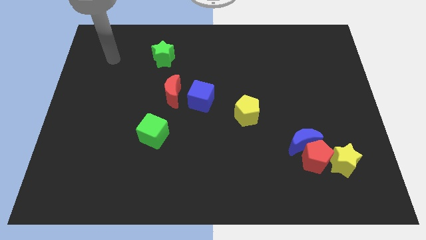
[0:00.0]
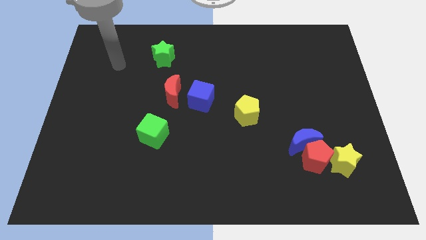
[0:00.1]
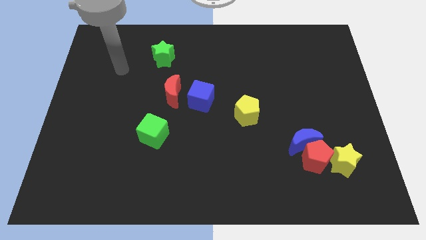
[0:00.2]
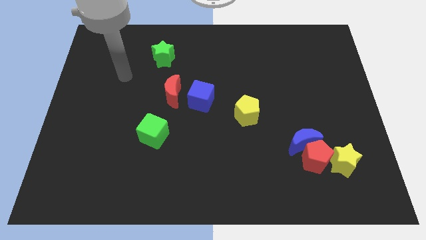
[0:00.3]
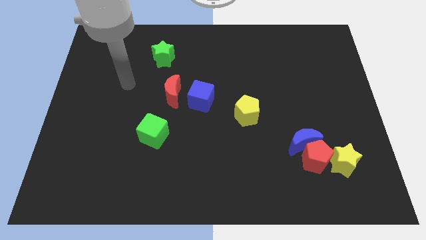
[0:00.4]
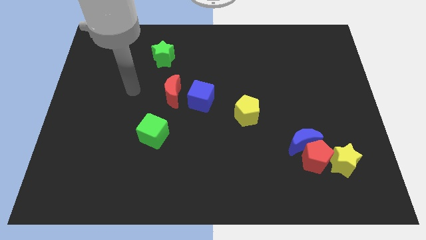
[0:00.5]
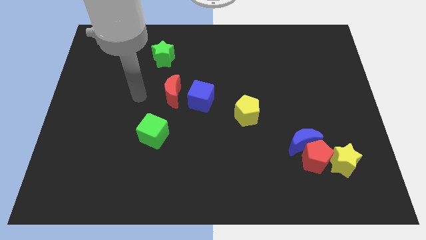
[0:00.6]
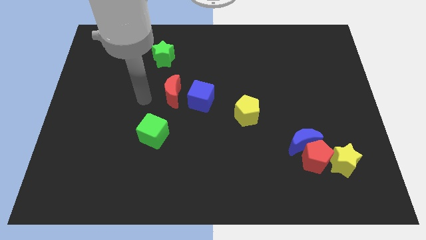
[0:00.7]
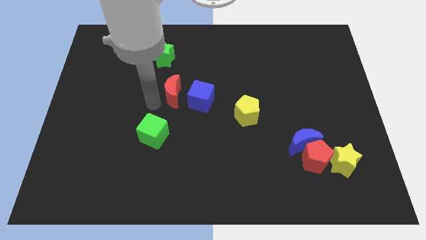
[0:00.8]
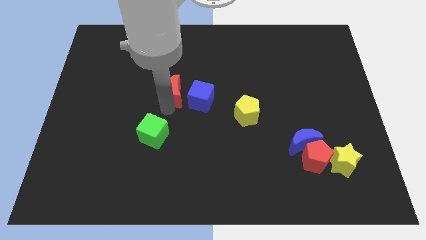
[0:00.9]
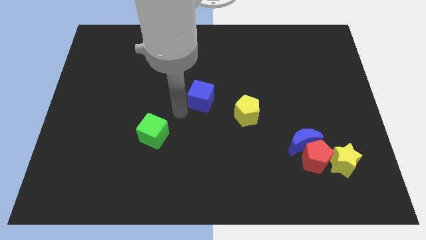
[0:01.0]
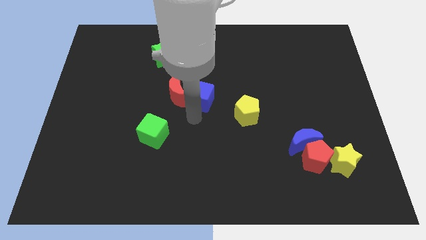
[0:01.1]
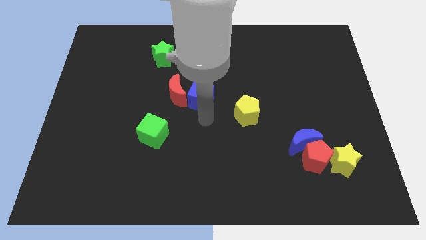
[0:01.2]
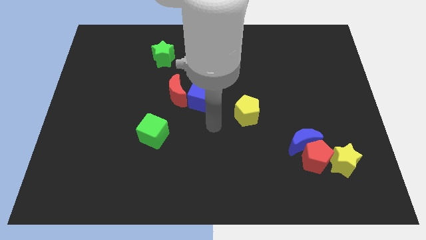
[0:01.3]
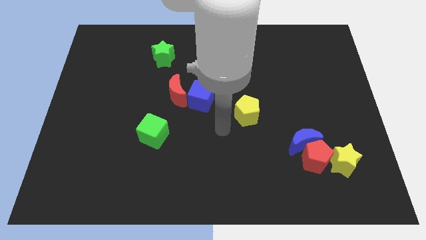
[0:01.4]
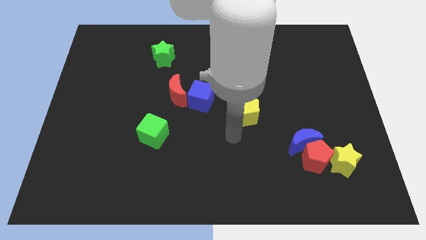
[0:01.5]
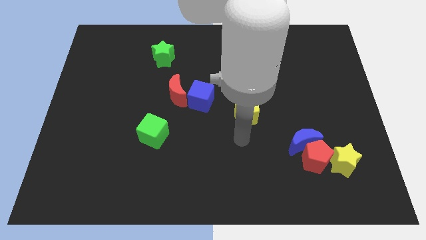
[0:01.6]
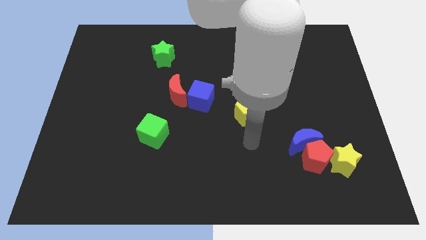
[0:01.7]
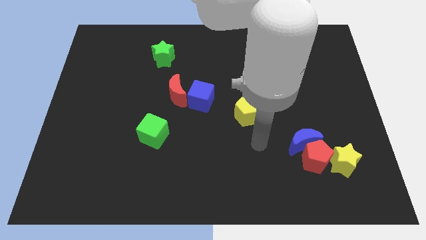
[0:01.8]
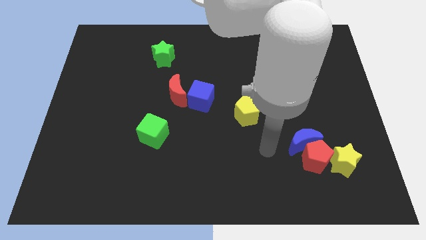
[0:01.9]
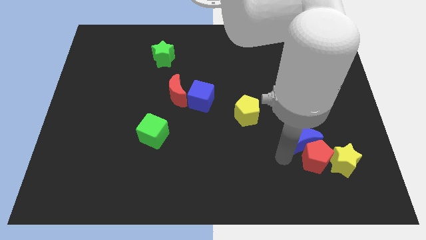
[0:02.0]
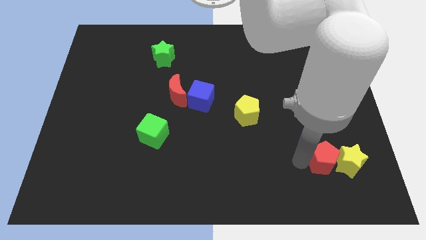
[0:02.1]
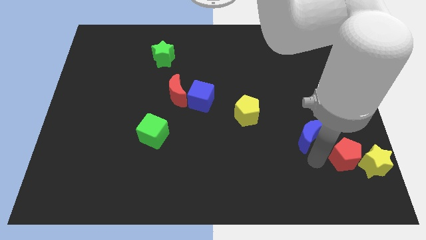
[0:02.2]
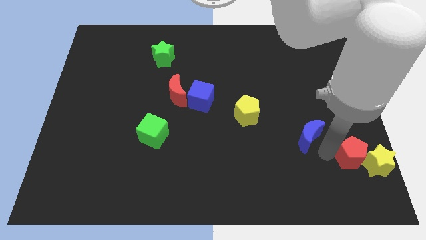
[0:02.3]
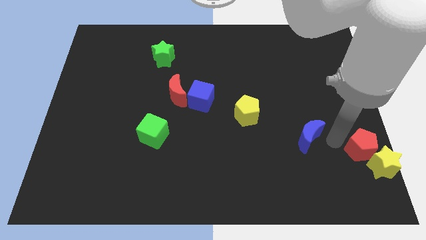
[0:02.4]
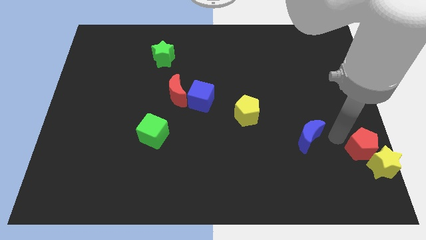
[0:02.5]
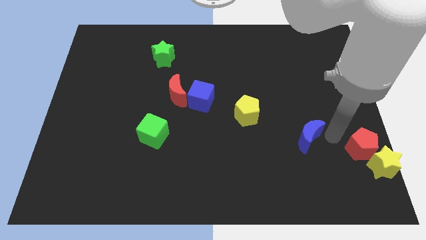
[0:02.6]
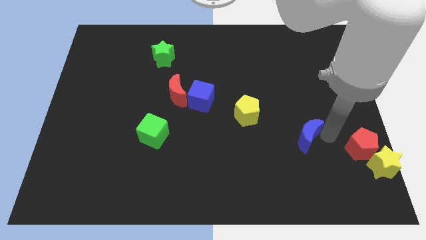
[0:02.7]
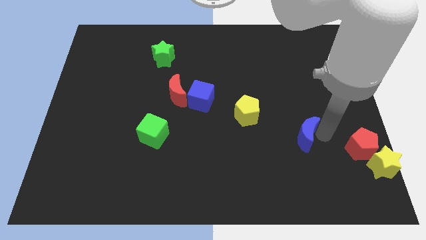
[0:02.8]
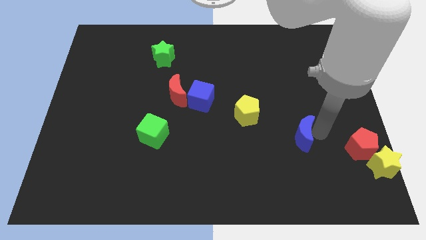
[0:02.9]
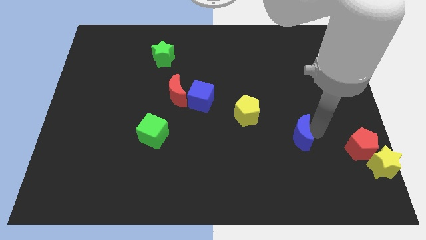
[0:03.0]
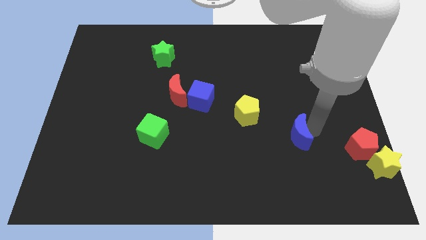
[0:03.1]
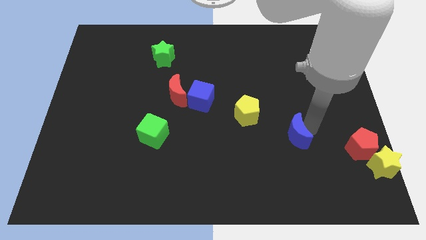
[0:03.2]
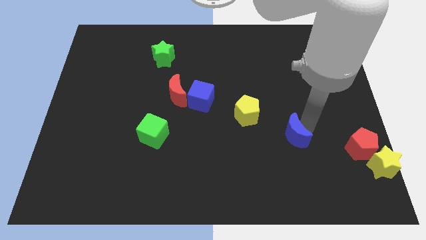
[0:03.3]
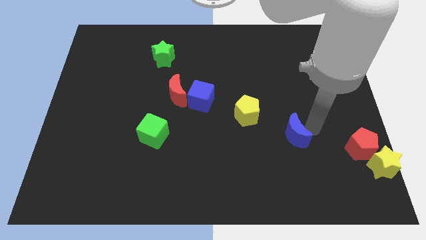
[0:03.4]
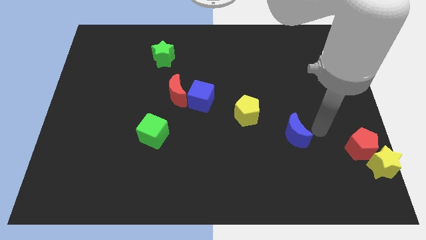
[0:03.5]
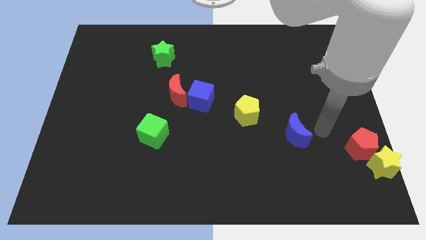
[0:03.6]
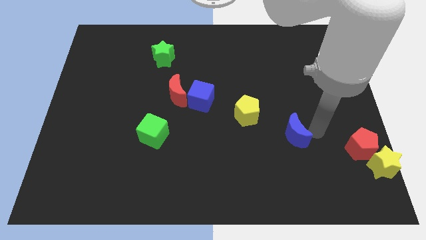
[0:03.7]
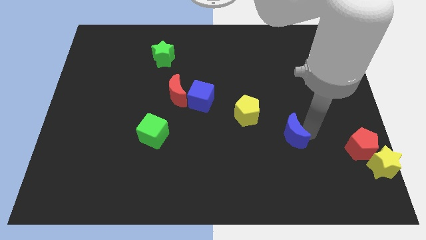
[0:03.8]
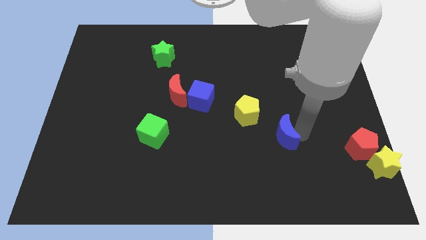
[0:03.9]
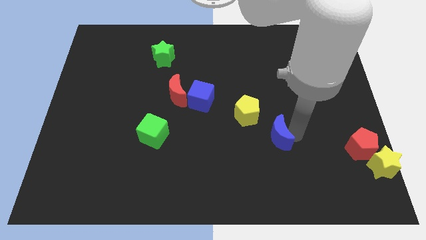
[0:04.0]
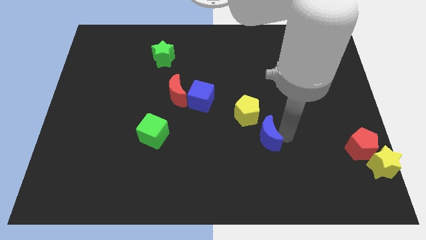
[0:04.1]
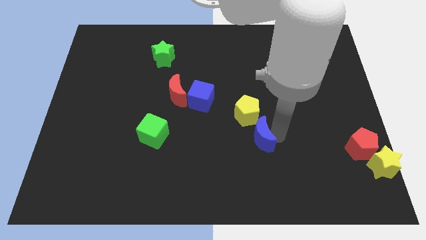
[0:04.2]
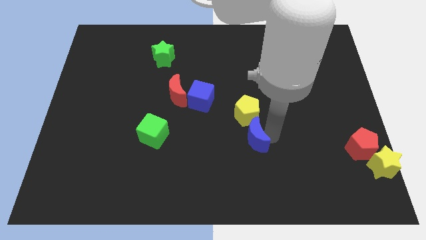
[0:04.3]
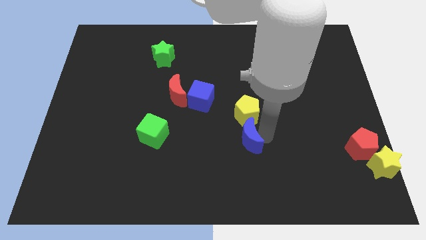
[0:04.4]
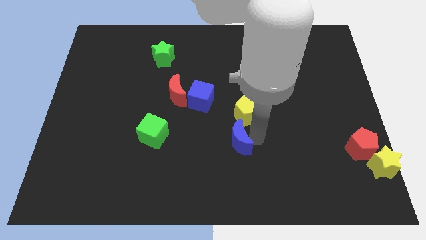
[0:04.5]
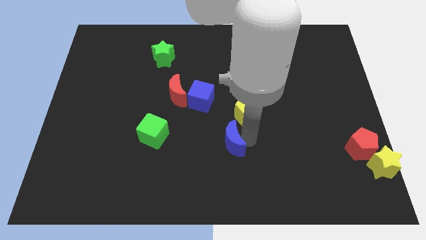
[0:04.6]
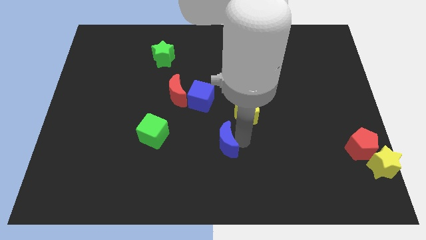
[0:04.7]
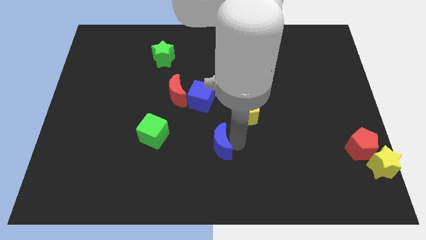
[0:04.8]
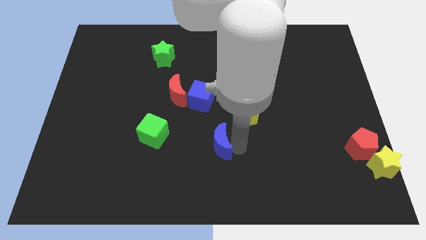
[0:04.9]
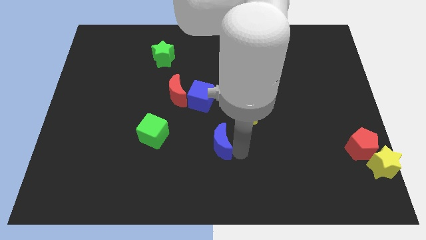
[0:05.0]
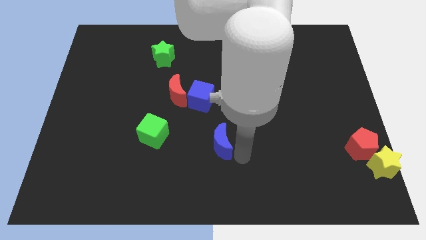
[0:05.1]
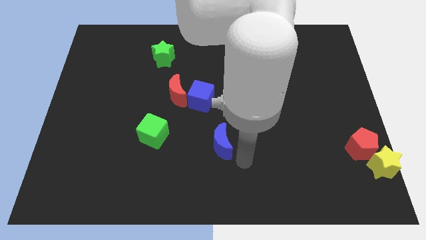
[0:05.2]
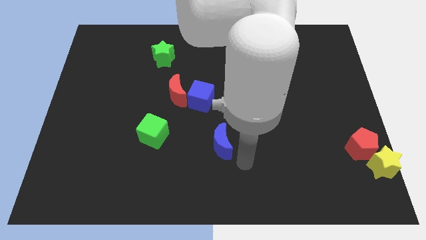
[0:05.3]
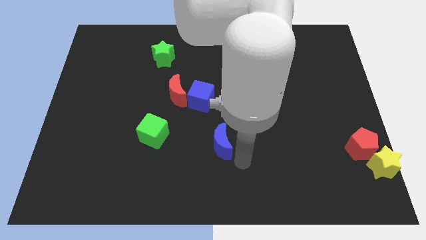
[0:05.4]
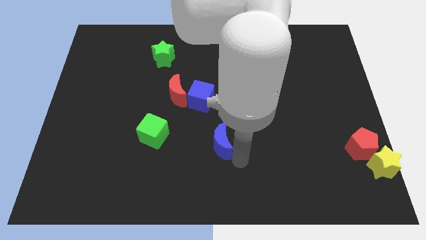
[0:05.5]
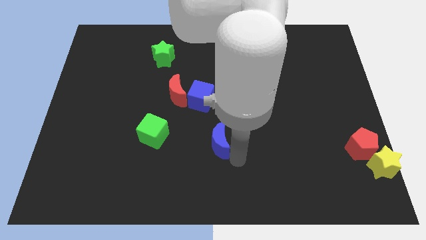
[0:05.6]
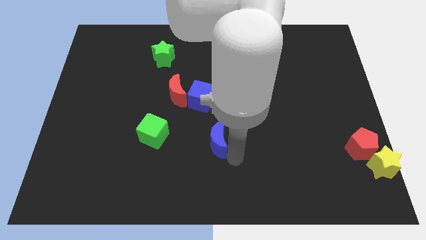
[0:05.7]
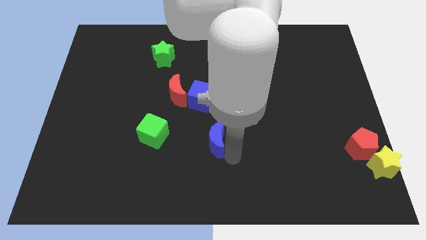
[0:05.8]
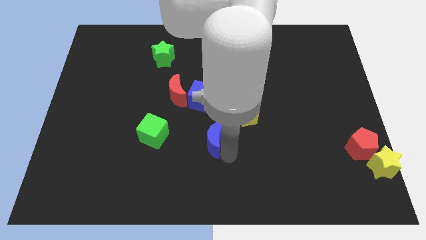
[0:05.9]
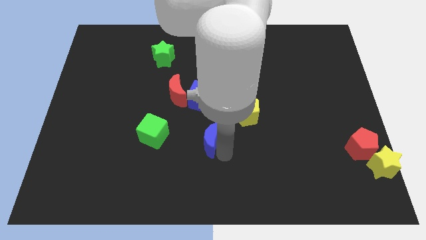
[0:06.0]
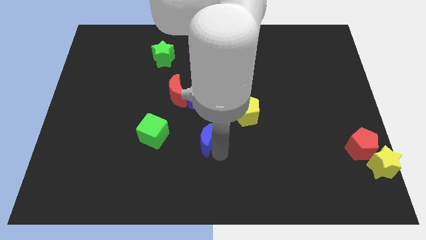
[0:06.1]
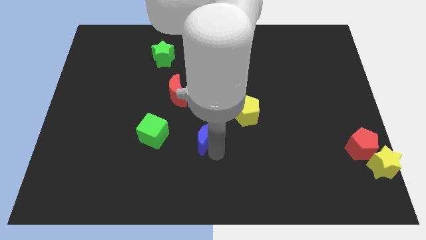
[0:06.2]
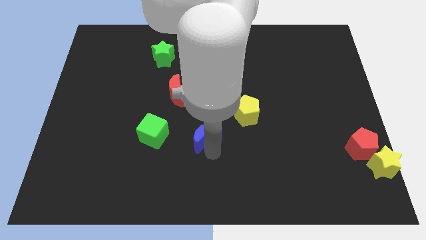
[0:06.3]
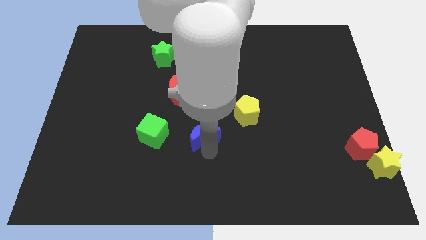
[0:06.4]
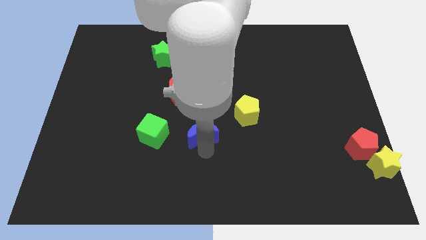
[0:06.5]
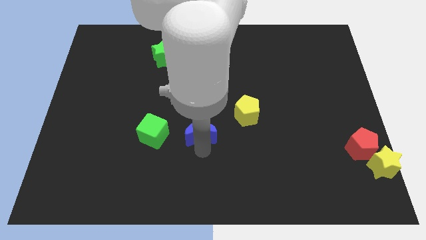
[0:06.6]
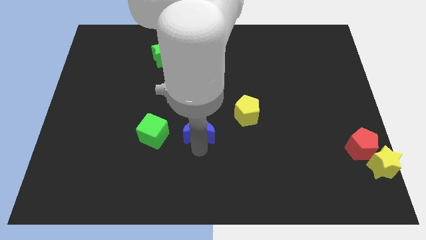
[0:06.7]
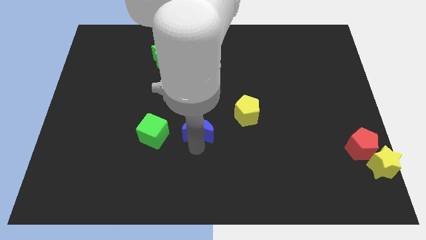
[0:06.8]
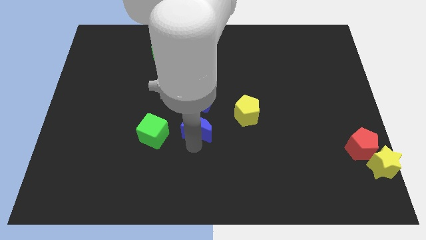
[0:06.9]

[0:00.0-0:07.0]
slide the blue moon to the left side of the yellow pentagon

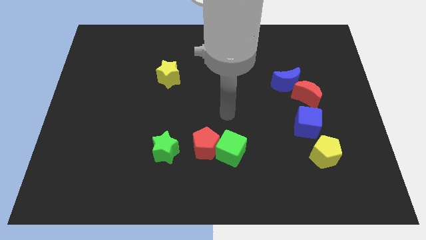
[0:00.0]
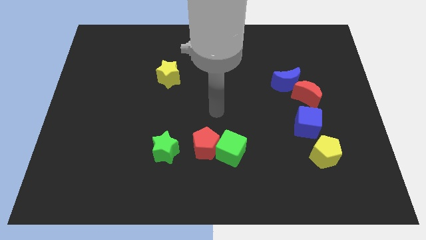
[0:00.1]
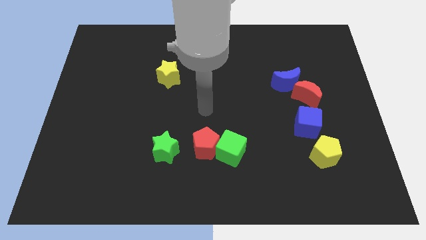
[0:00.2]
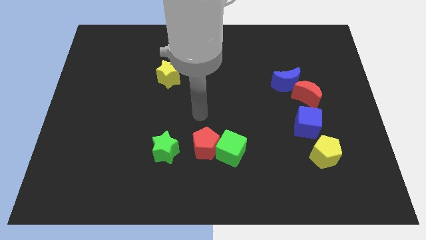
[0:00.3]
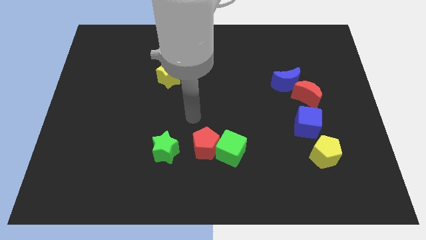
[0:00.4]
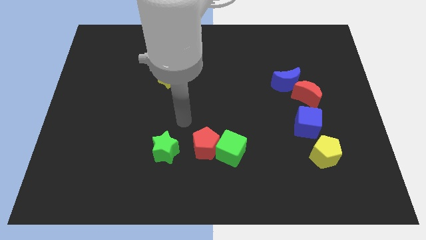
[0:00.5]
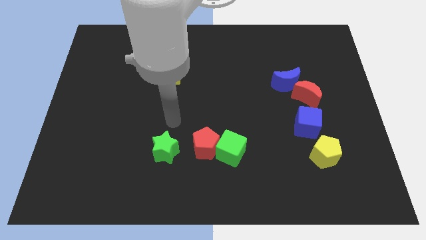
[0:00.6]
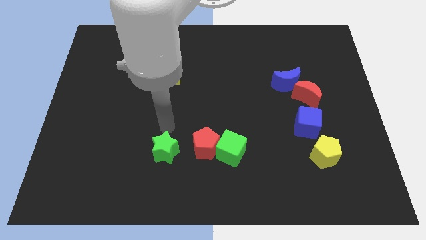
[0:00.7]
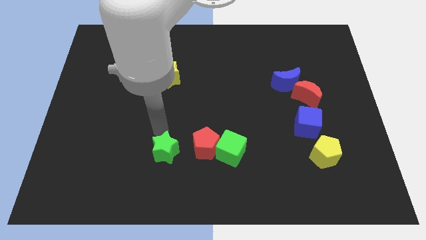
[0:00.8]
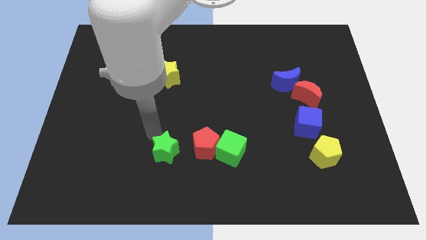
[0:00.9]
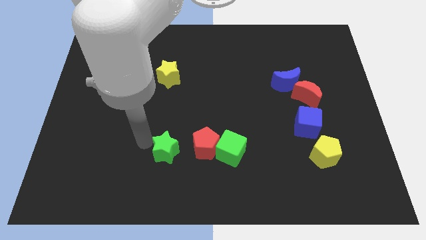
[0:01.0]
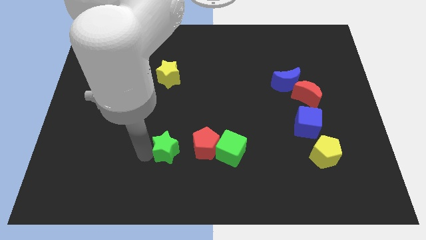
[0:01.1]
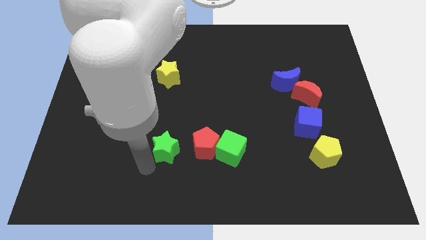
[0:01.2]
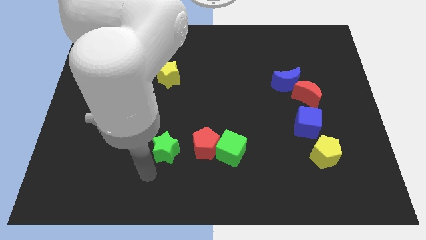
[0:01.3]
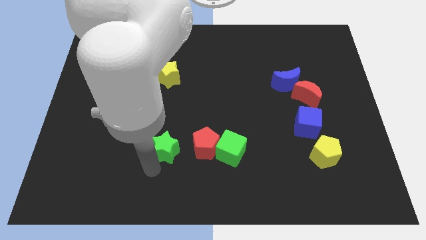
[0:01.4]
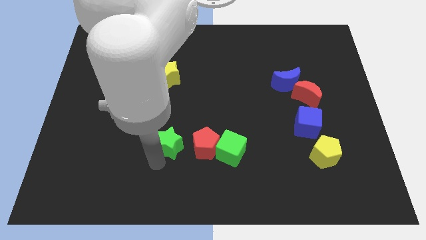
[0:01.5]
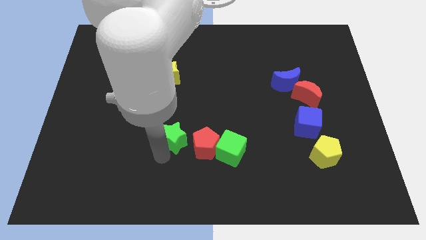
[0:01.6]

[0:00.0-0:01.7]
slide the green star diagonally up and to the left of the red pentagon
